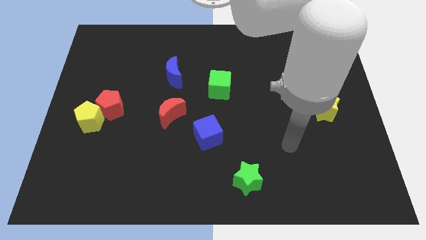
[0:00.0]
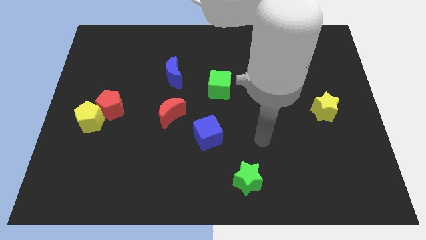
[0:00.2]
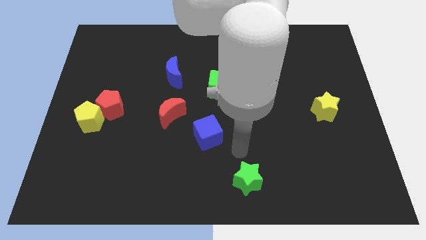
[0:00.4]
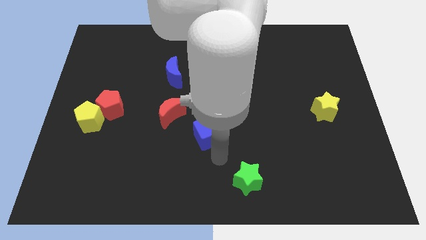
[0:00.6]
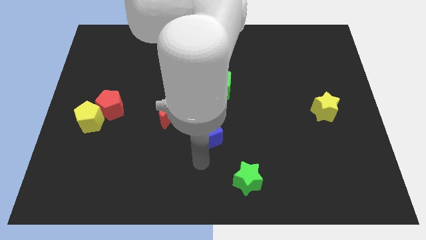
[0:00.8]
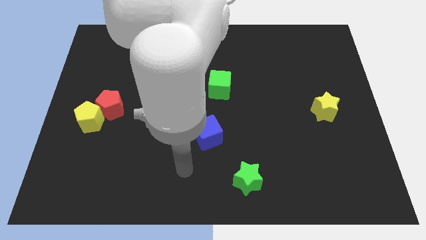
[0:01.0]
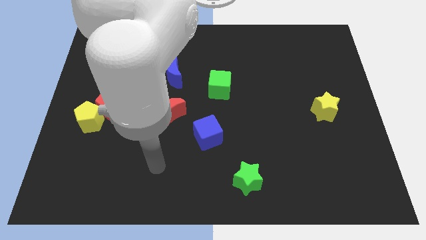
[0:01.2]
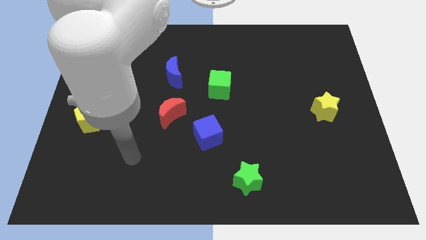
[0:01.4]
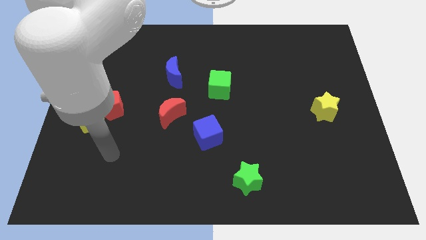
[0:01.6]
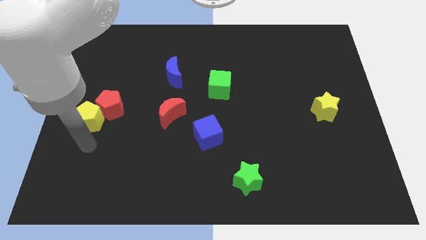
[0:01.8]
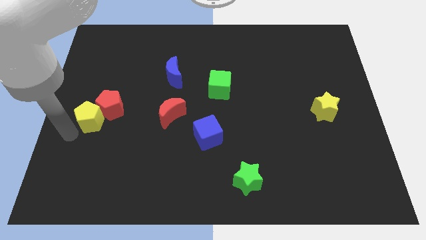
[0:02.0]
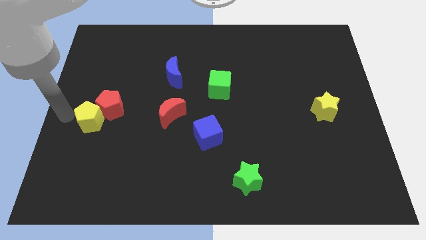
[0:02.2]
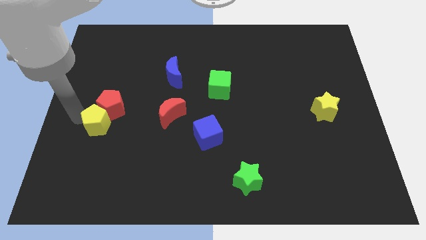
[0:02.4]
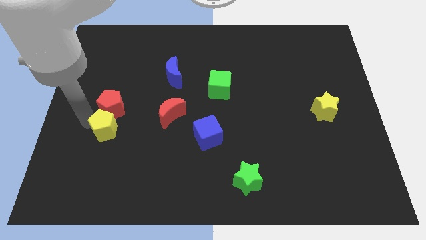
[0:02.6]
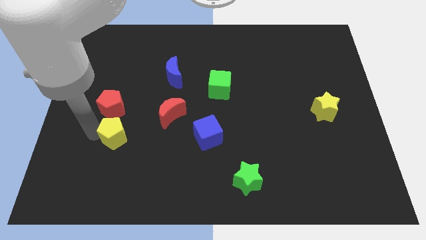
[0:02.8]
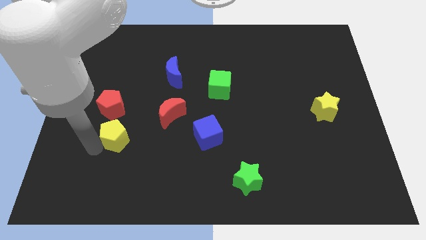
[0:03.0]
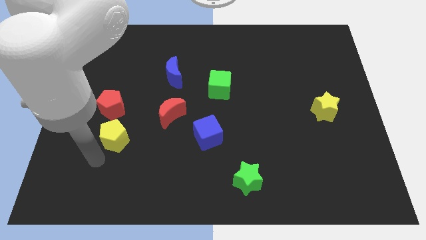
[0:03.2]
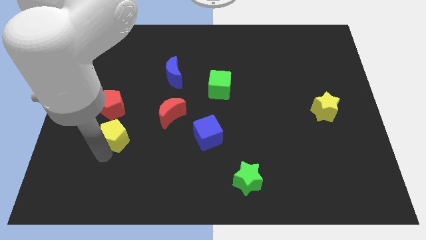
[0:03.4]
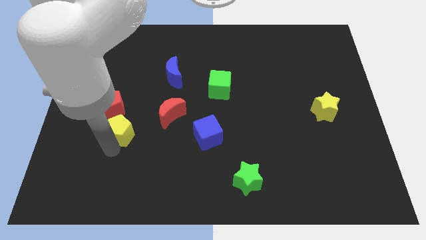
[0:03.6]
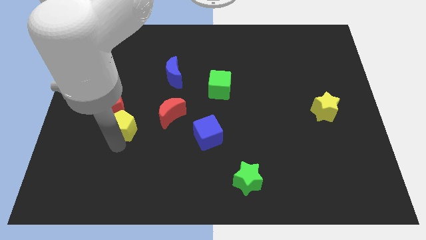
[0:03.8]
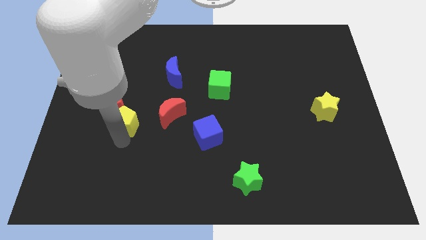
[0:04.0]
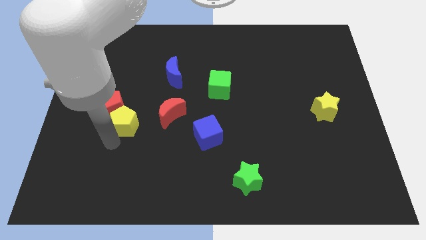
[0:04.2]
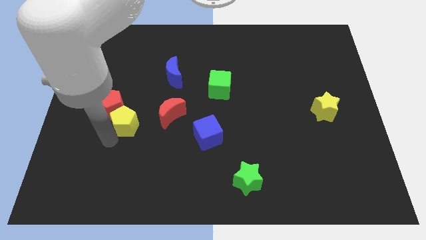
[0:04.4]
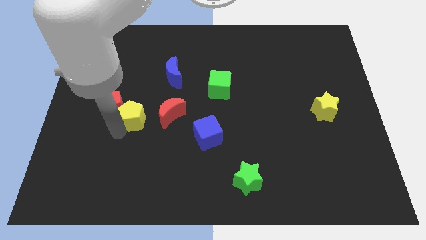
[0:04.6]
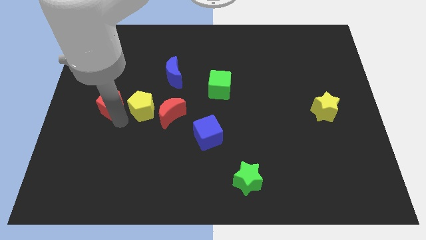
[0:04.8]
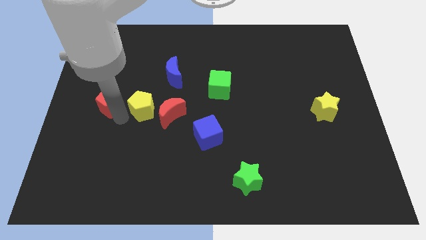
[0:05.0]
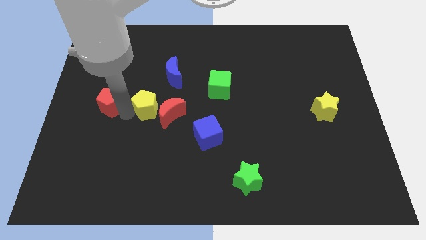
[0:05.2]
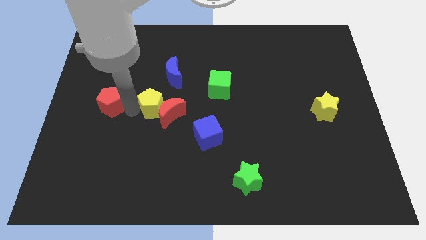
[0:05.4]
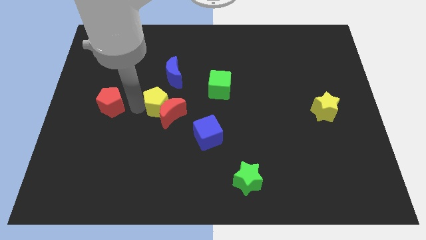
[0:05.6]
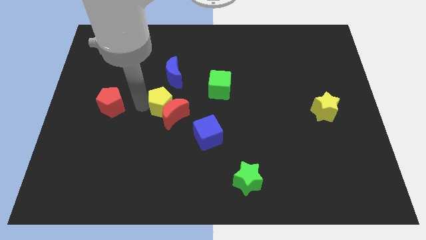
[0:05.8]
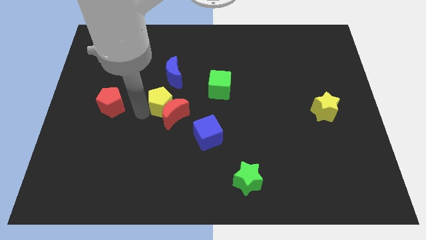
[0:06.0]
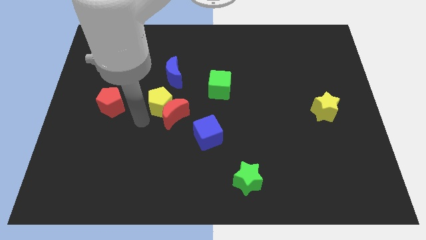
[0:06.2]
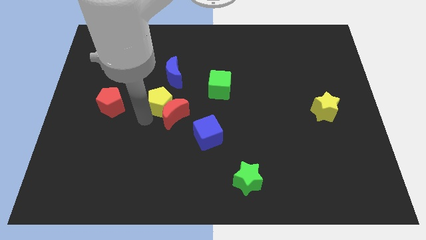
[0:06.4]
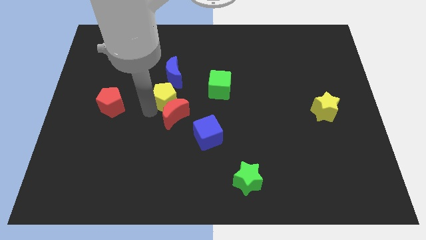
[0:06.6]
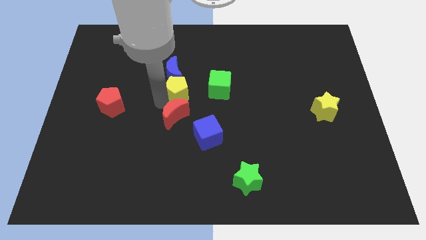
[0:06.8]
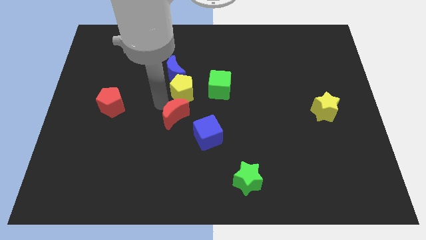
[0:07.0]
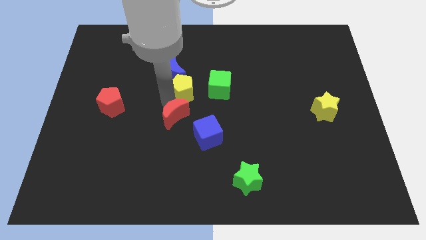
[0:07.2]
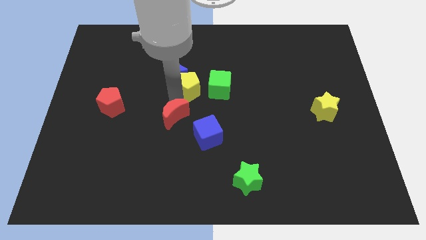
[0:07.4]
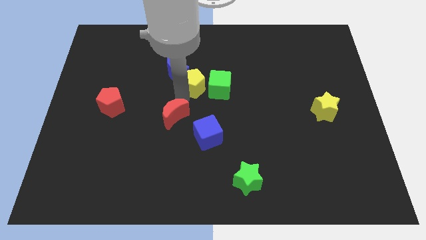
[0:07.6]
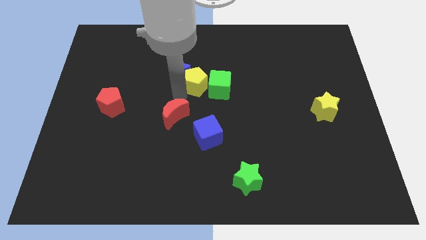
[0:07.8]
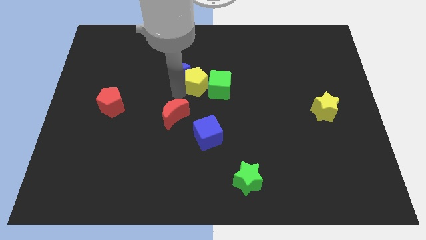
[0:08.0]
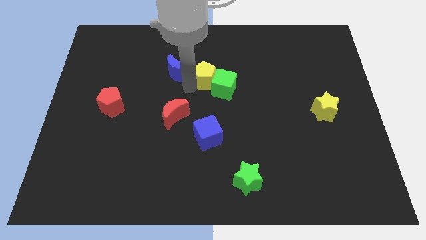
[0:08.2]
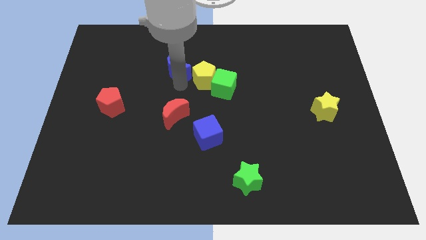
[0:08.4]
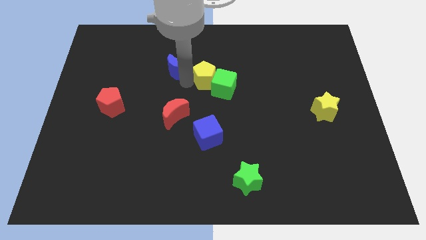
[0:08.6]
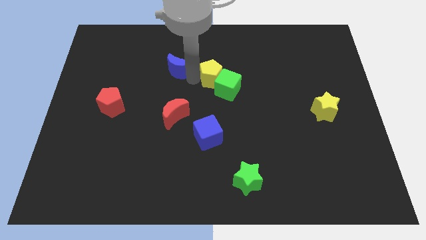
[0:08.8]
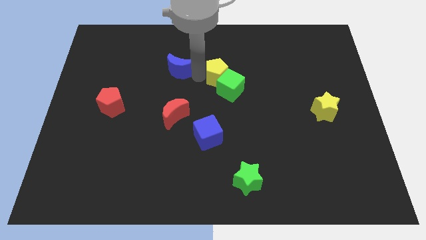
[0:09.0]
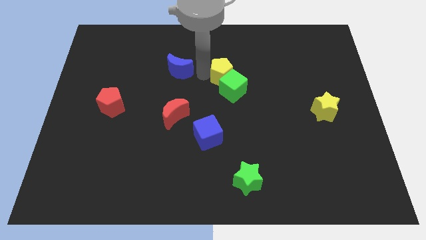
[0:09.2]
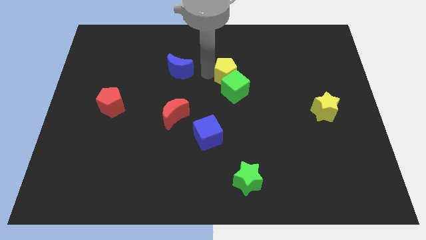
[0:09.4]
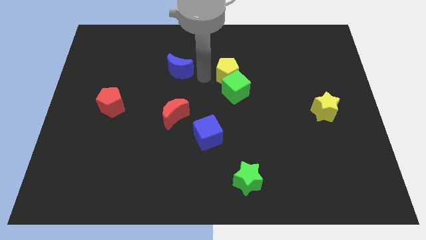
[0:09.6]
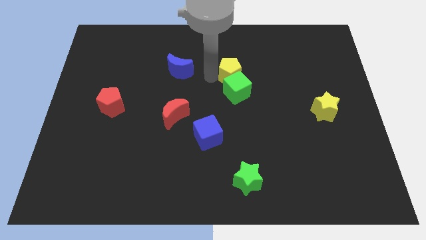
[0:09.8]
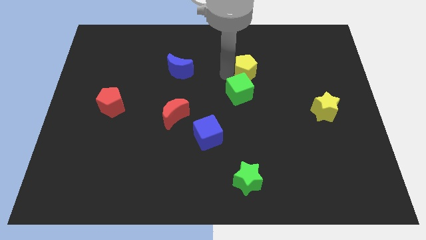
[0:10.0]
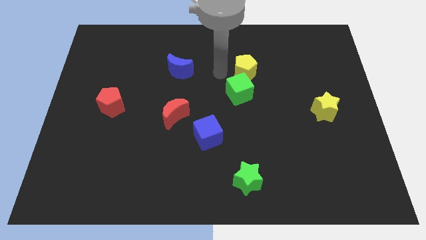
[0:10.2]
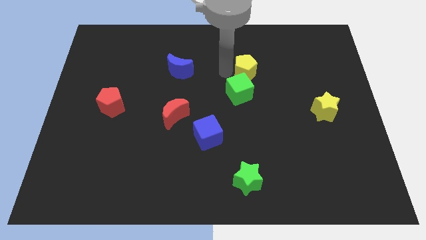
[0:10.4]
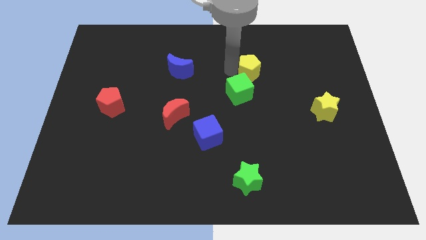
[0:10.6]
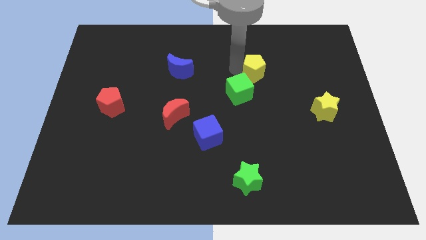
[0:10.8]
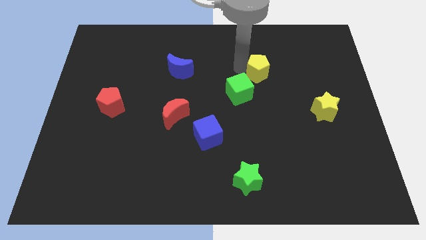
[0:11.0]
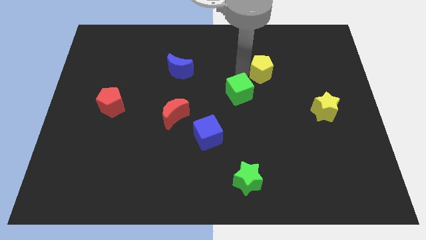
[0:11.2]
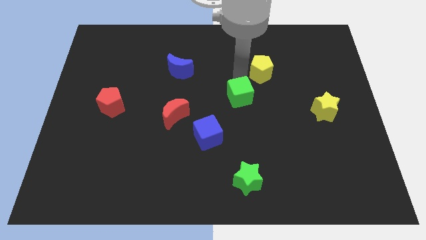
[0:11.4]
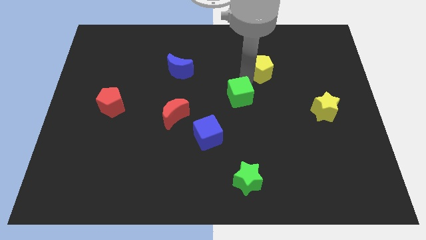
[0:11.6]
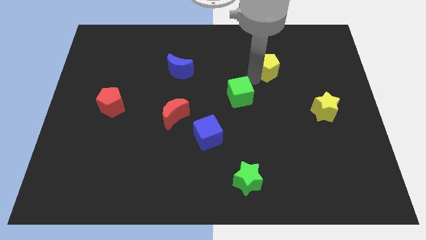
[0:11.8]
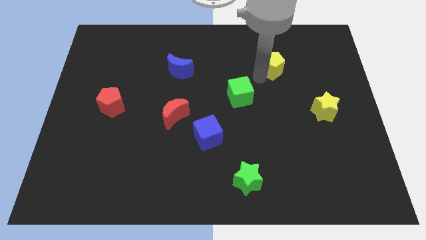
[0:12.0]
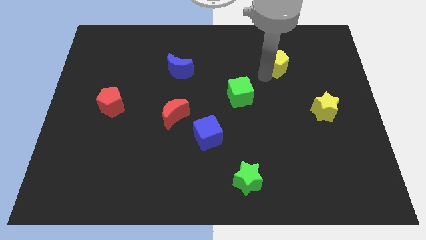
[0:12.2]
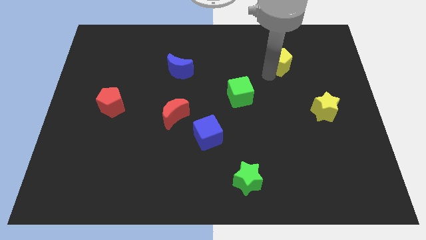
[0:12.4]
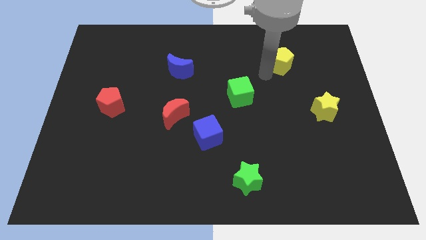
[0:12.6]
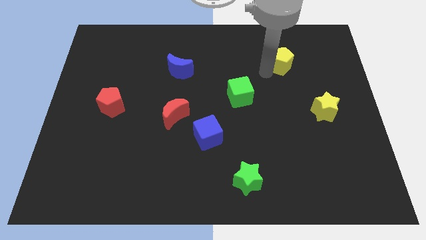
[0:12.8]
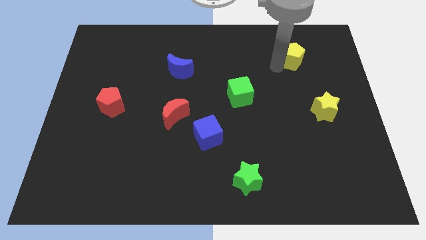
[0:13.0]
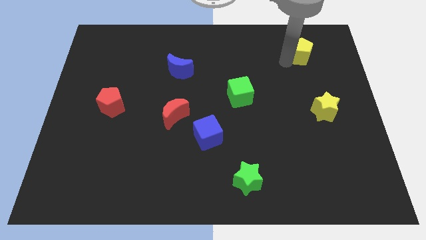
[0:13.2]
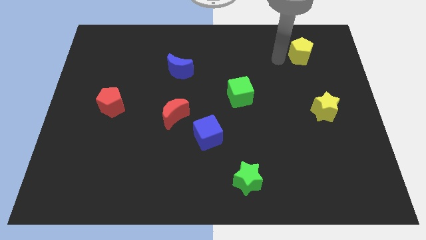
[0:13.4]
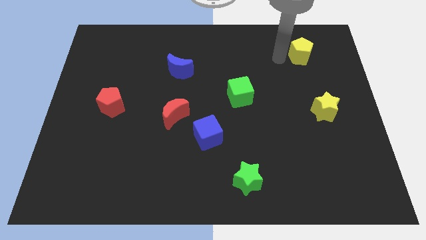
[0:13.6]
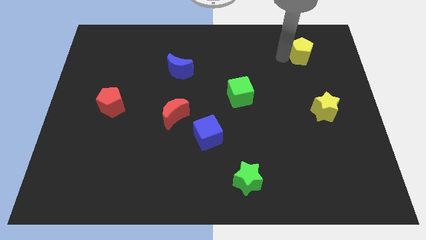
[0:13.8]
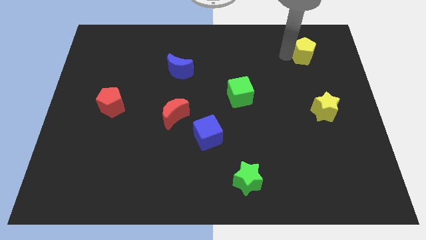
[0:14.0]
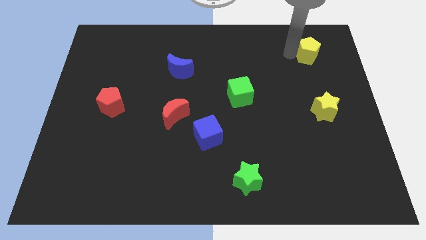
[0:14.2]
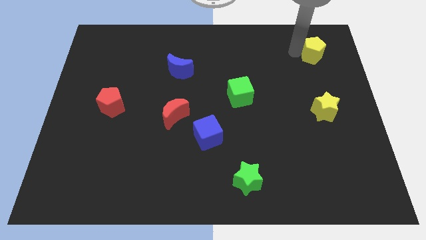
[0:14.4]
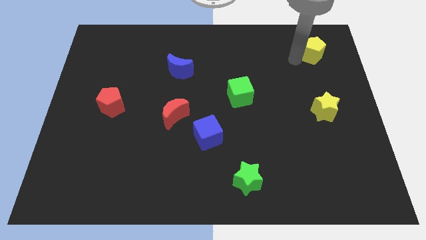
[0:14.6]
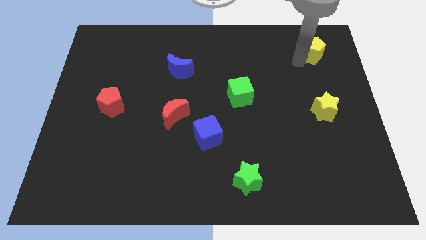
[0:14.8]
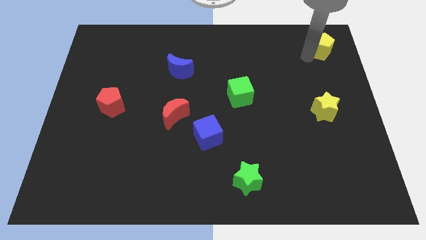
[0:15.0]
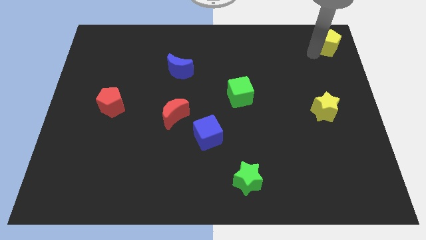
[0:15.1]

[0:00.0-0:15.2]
slide the yellow pentagon to the top right
